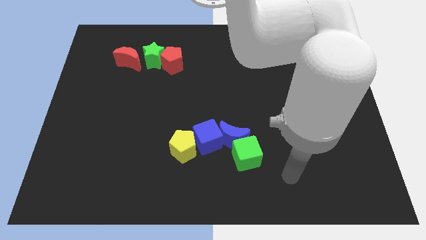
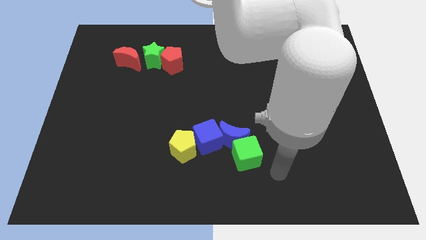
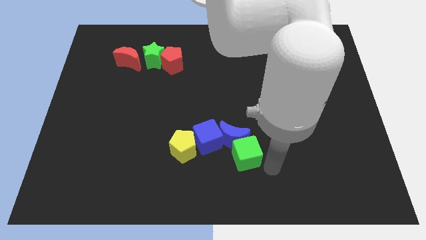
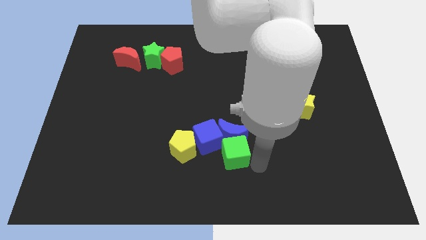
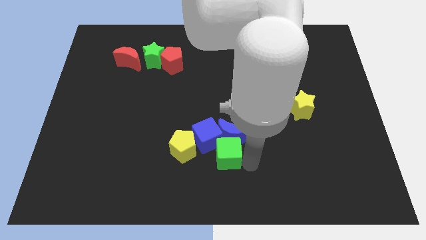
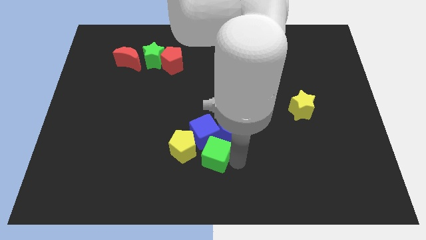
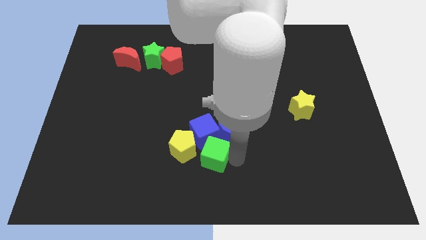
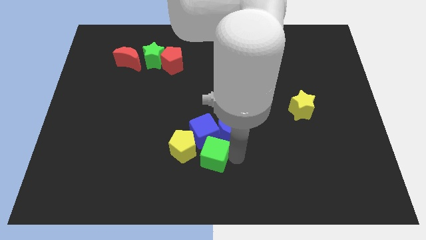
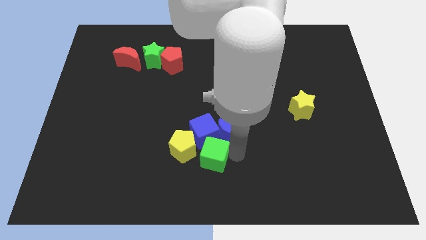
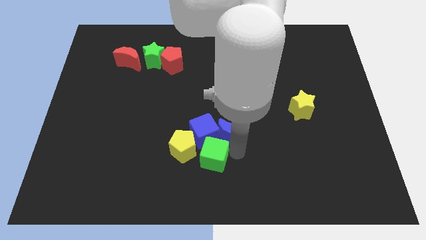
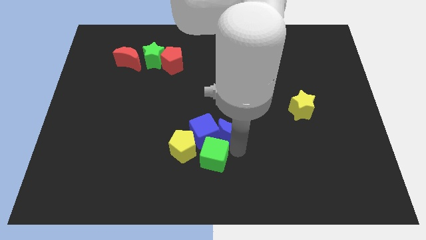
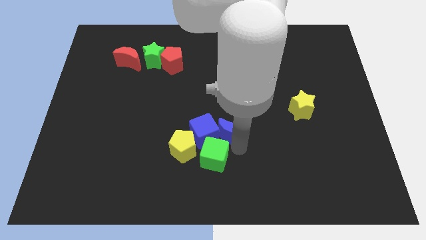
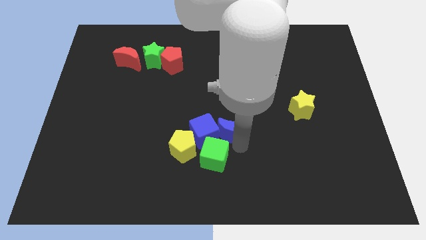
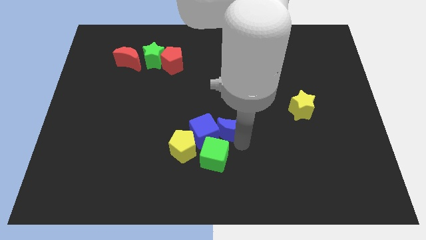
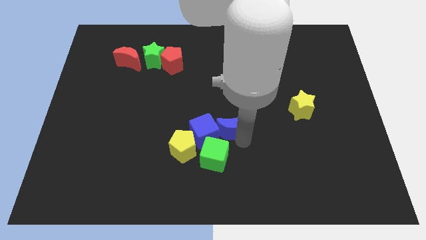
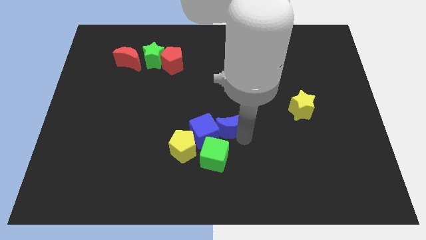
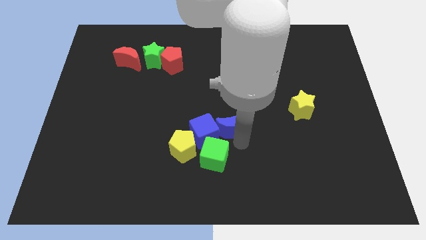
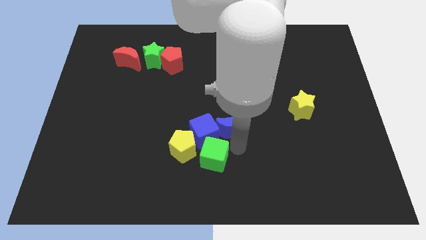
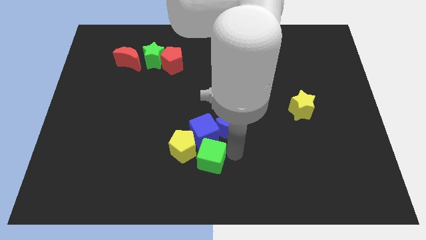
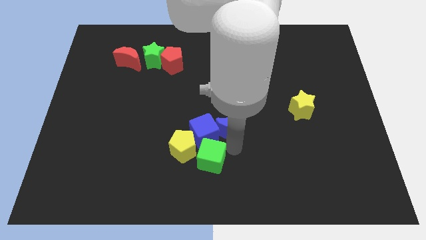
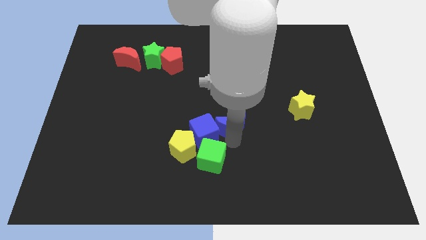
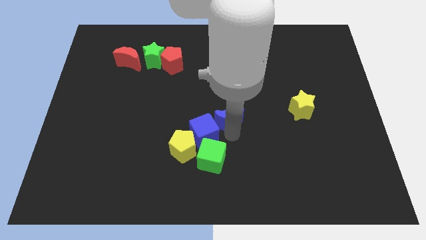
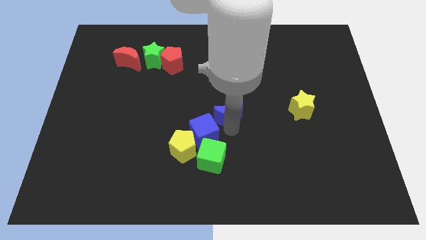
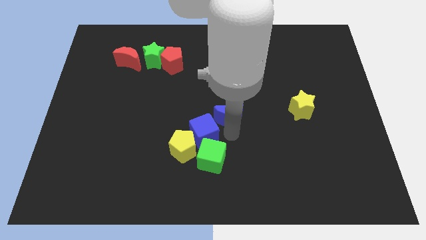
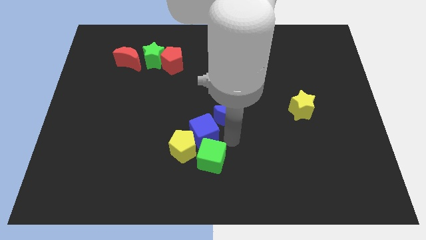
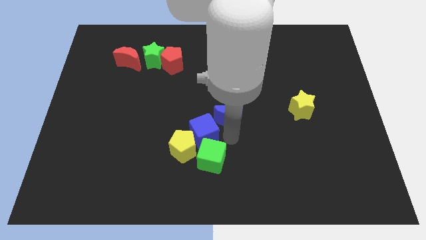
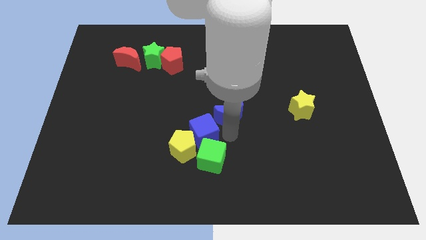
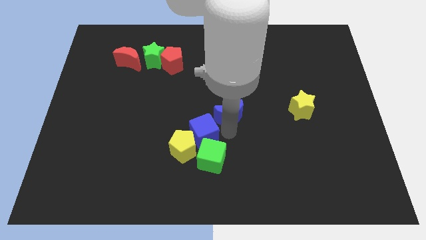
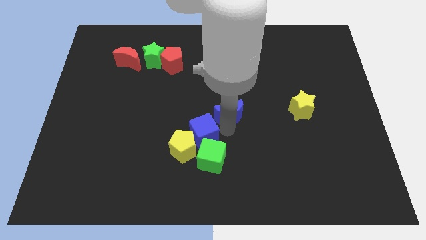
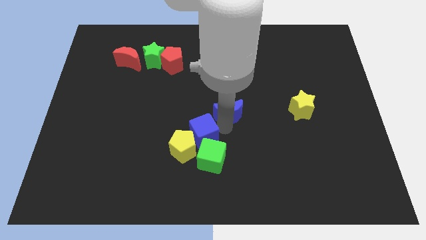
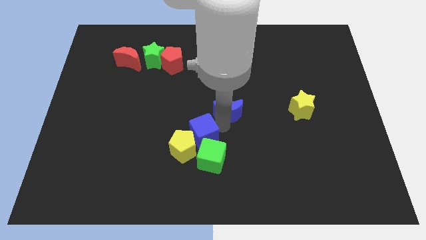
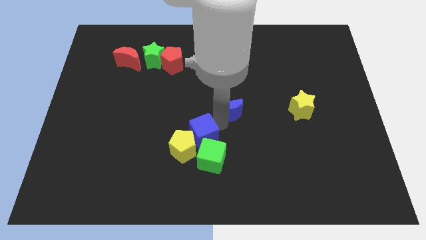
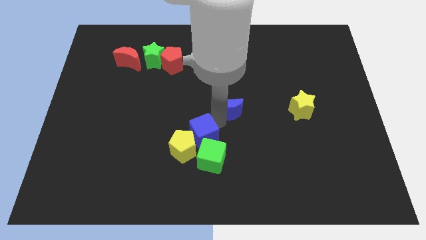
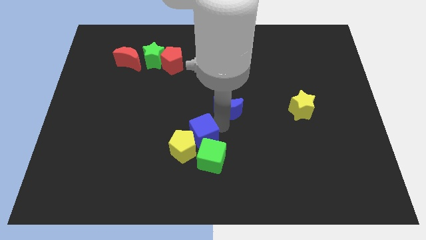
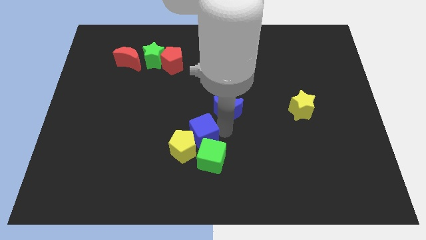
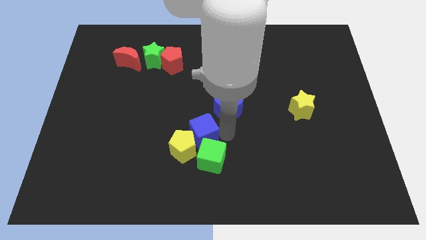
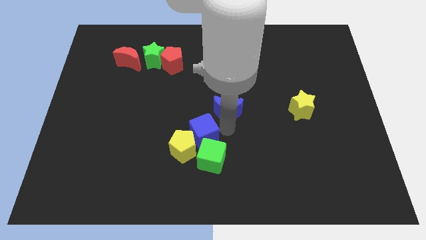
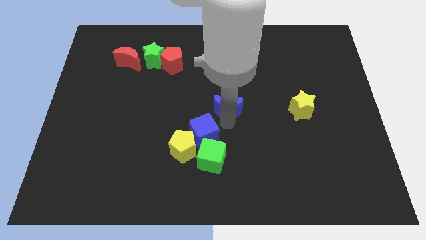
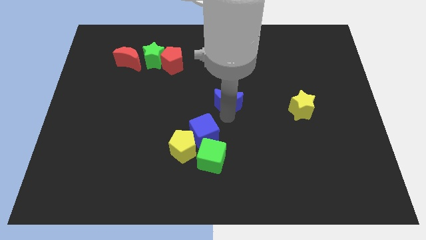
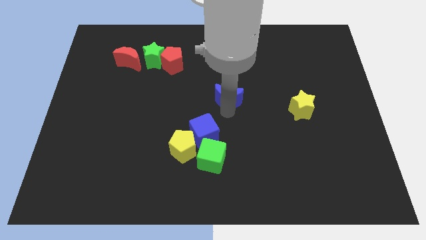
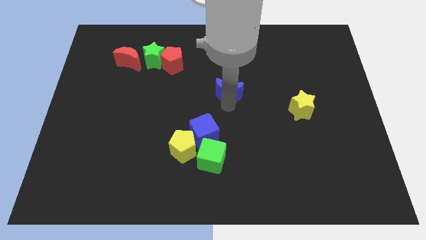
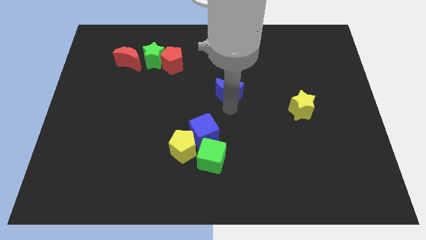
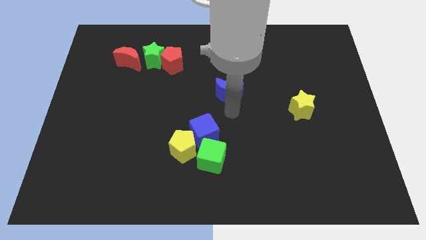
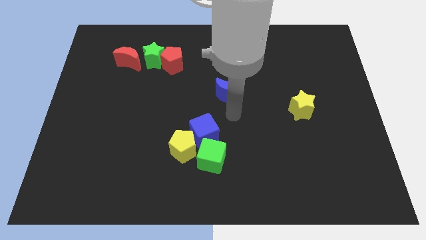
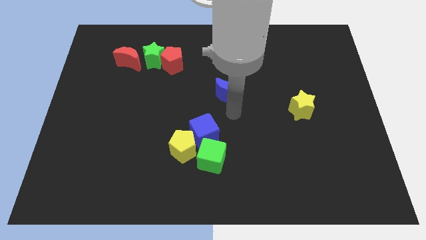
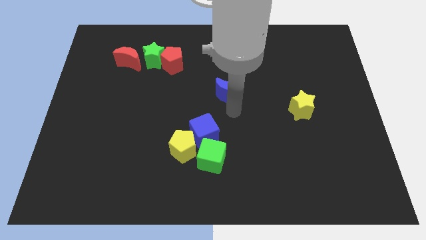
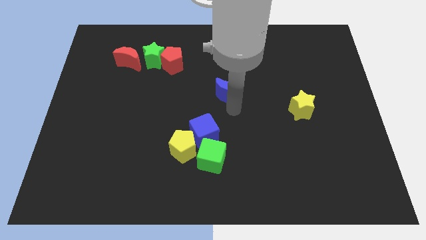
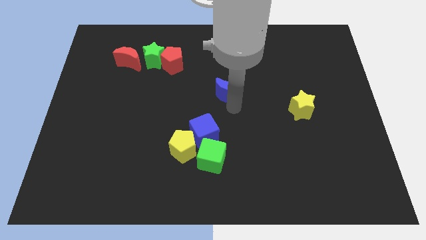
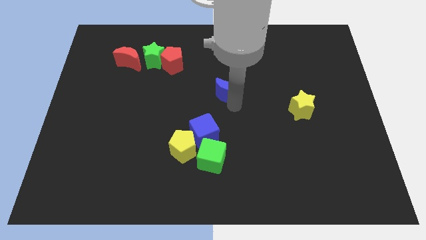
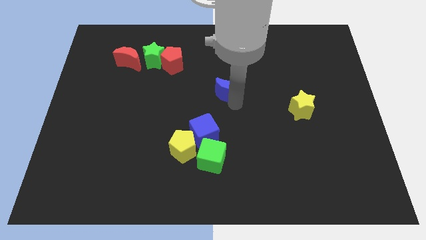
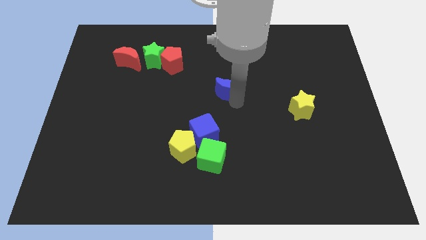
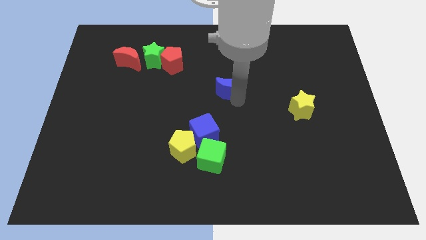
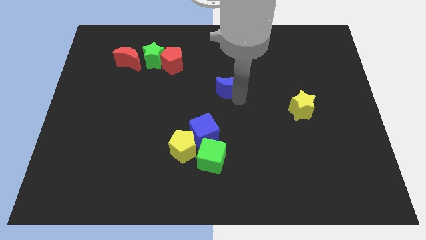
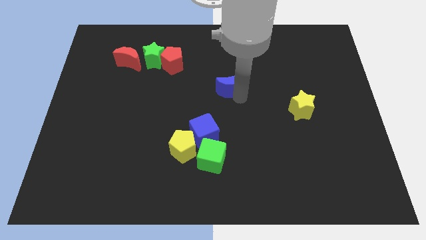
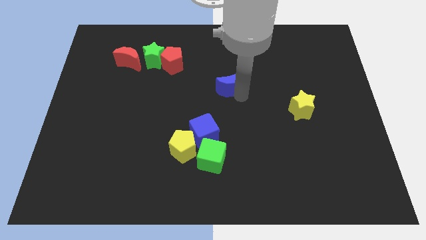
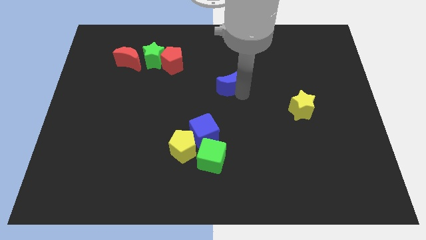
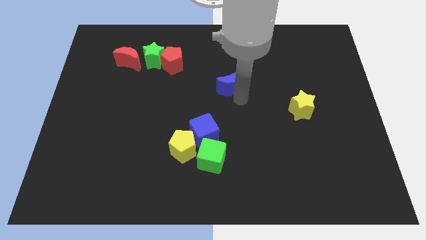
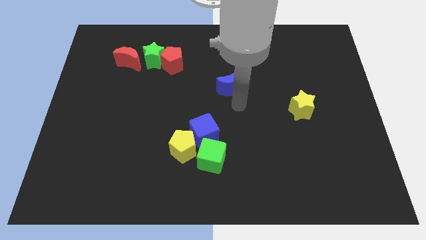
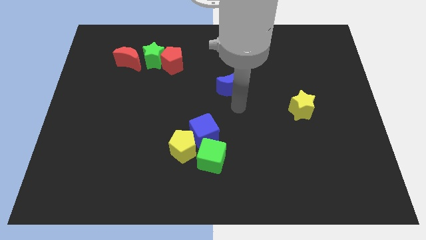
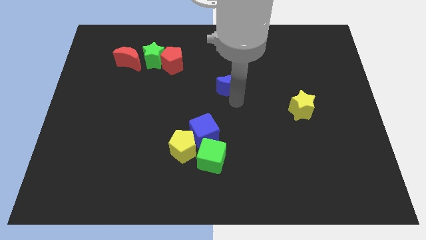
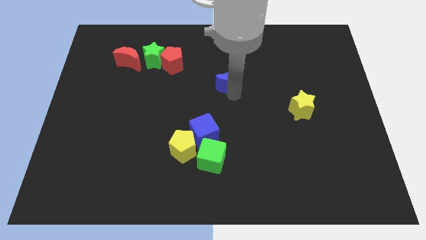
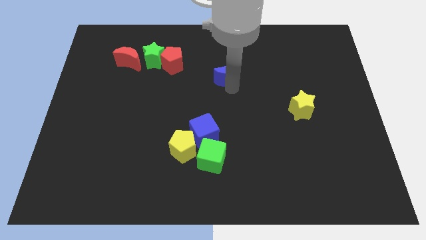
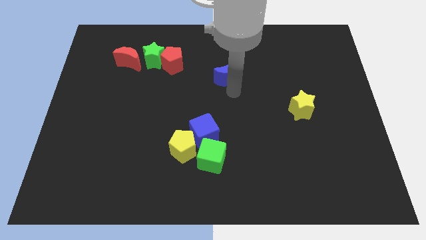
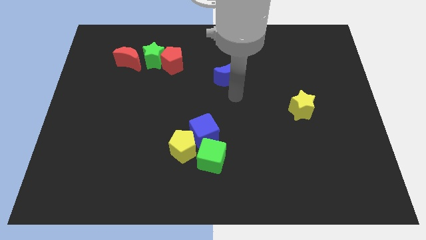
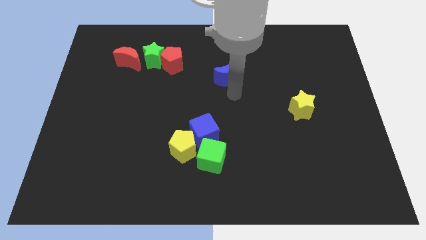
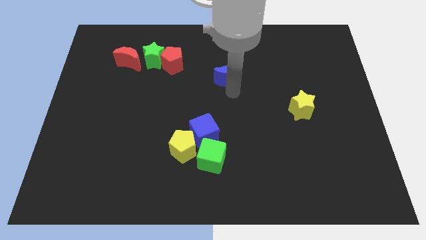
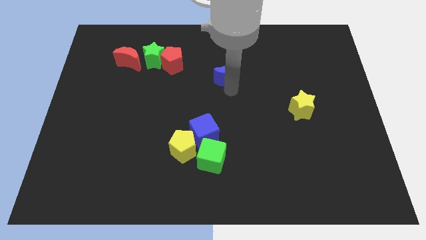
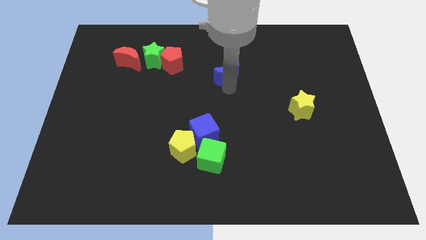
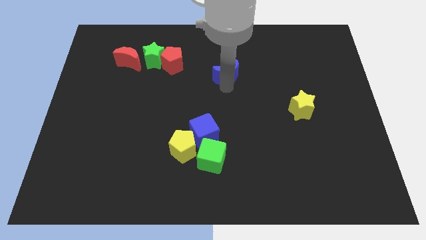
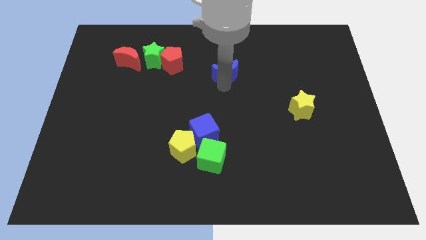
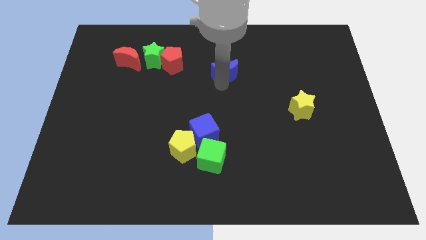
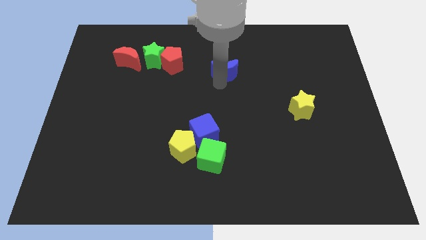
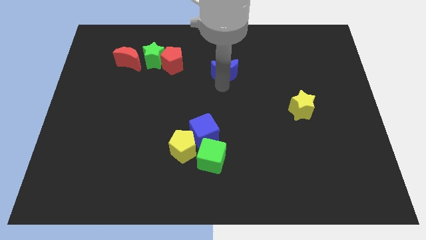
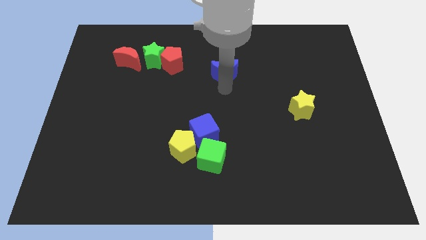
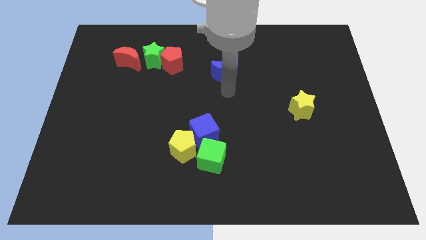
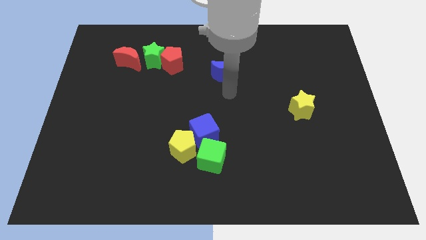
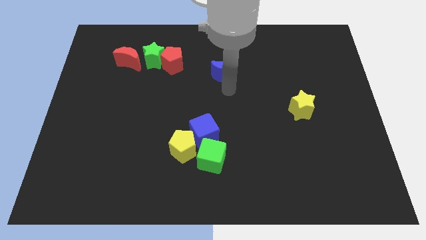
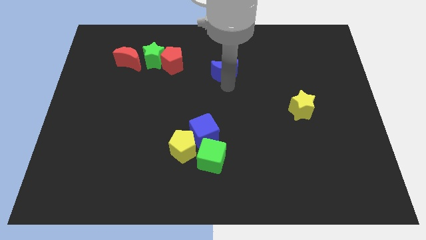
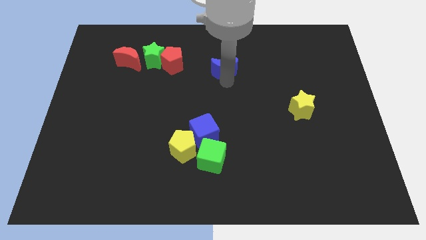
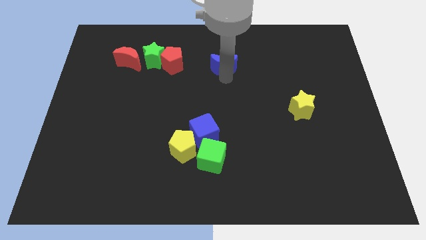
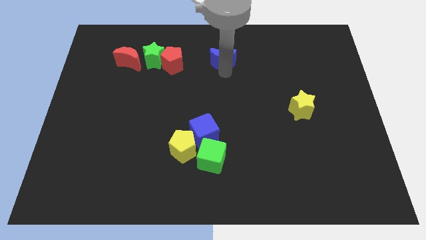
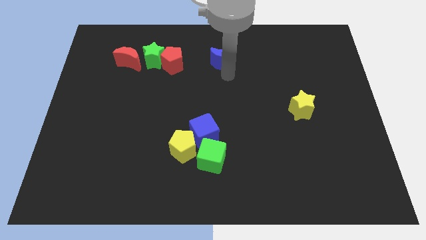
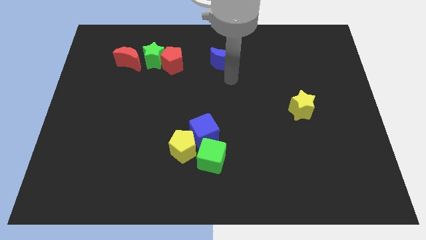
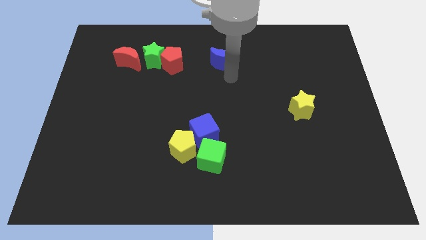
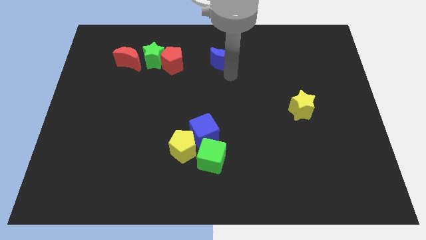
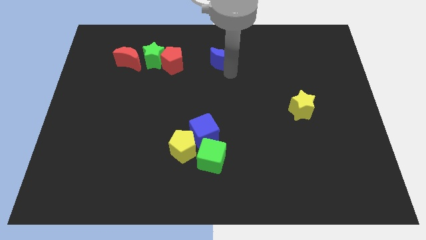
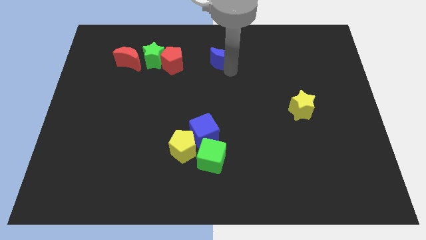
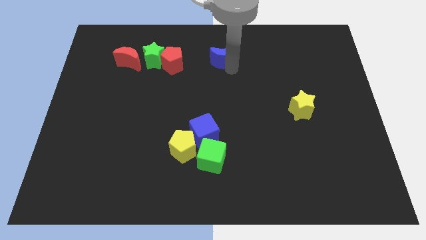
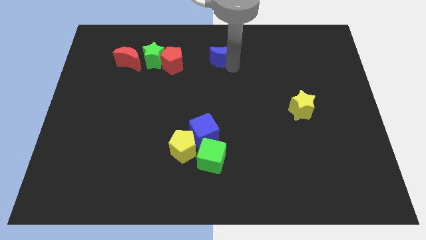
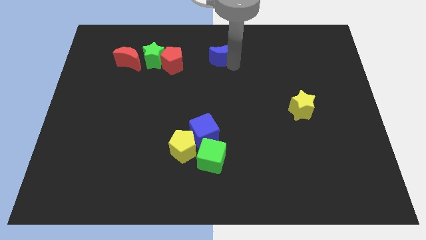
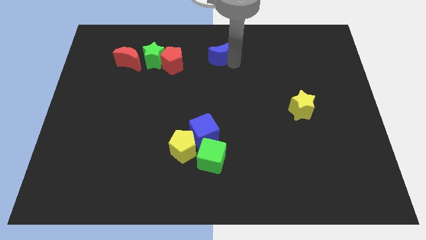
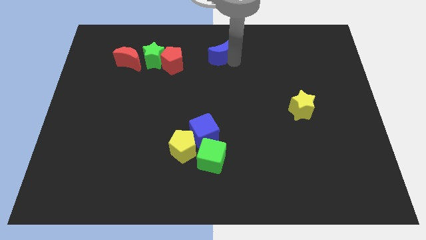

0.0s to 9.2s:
put the blue moon to the towards your base
